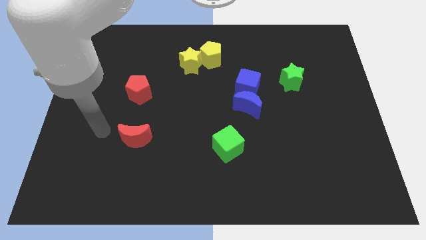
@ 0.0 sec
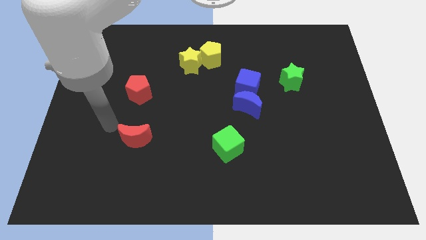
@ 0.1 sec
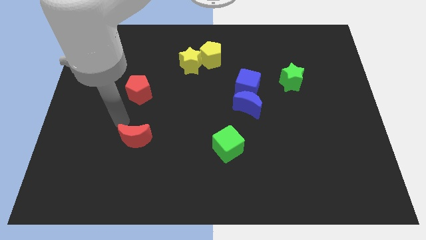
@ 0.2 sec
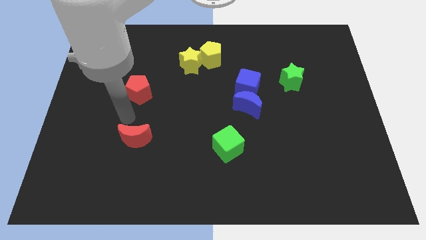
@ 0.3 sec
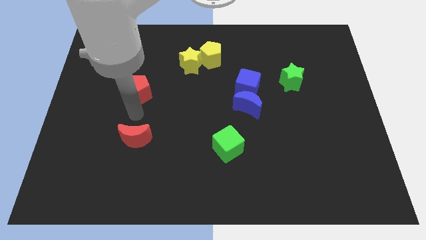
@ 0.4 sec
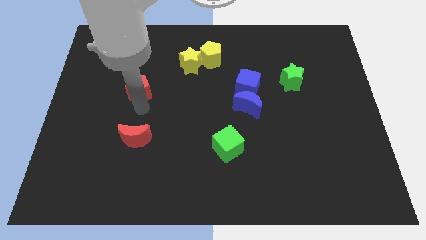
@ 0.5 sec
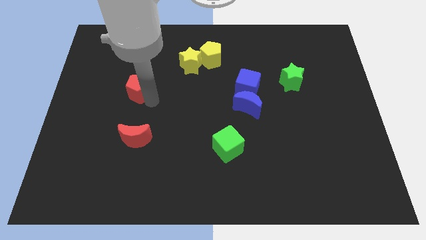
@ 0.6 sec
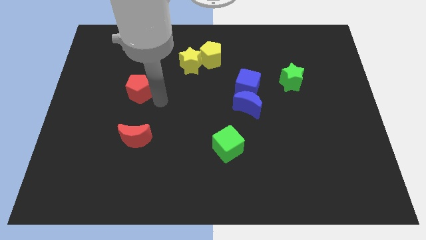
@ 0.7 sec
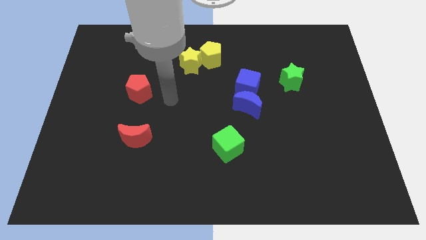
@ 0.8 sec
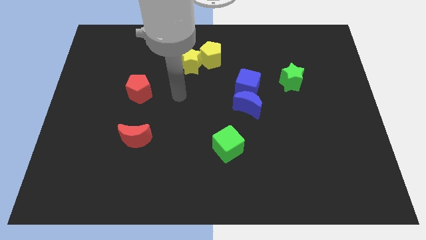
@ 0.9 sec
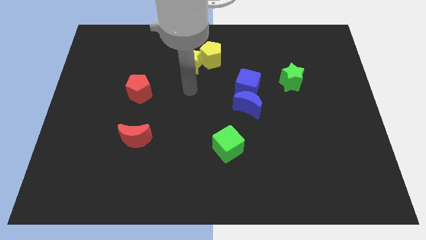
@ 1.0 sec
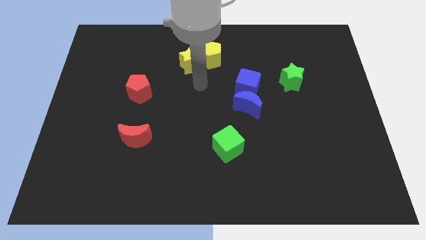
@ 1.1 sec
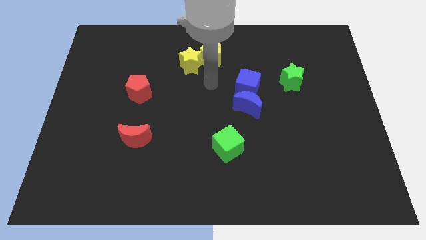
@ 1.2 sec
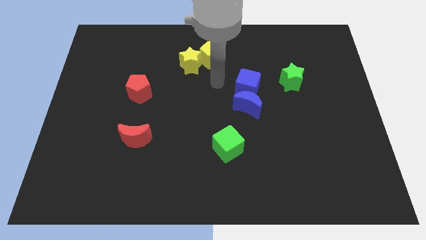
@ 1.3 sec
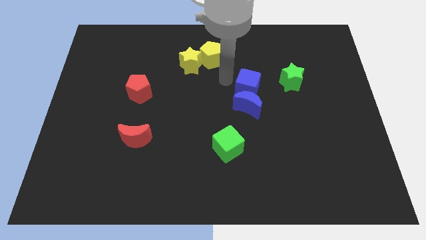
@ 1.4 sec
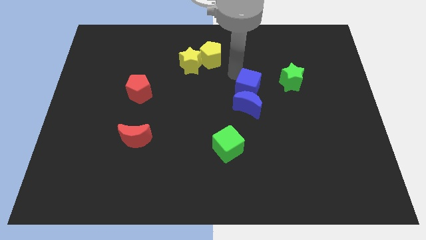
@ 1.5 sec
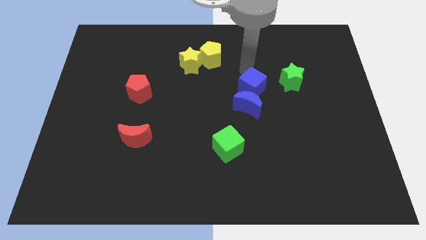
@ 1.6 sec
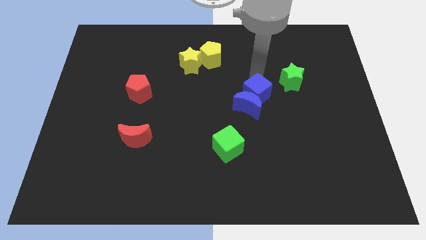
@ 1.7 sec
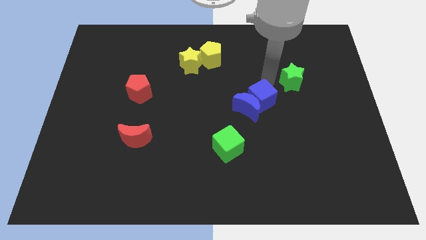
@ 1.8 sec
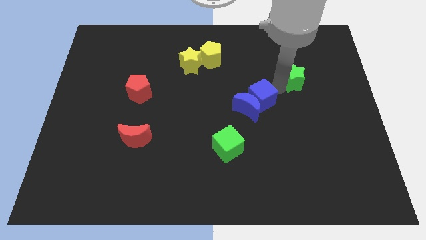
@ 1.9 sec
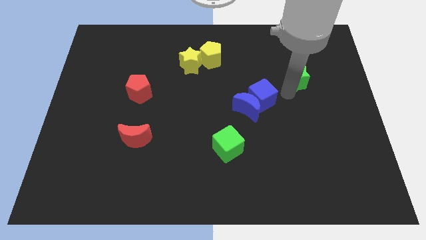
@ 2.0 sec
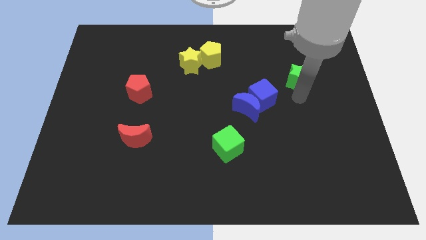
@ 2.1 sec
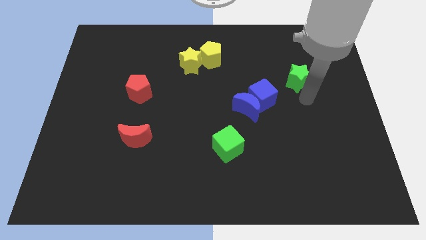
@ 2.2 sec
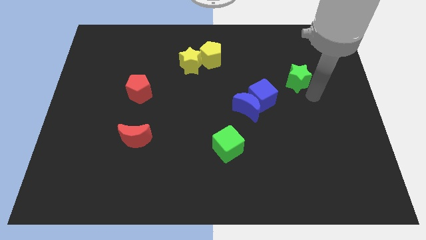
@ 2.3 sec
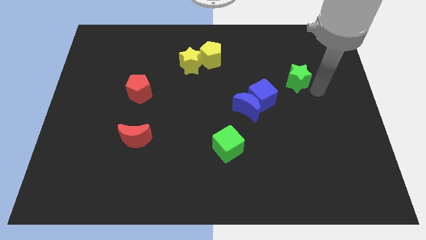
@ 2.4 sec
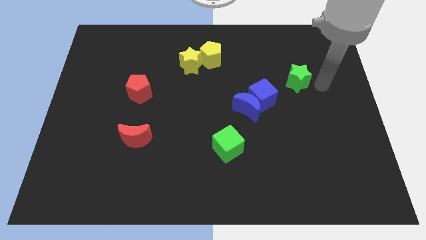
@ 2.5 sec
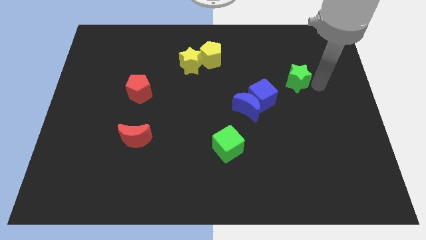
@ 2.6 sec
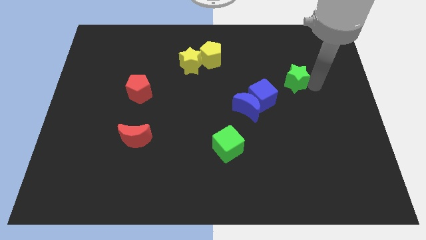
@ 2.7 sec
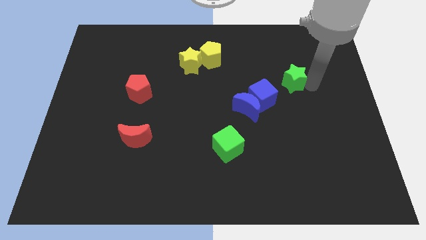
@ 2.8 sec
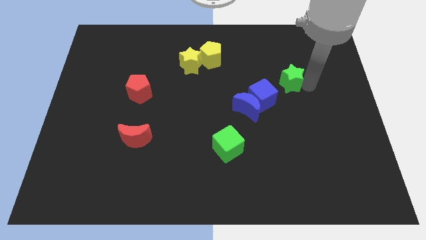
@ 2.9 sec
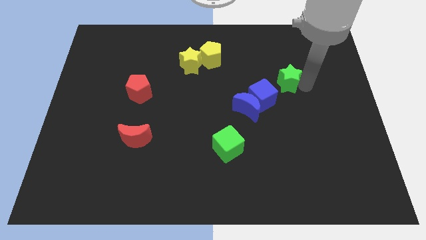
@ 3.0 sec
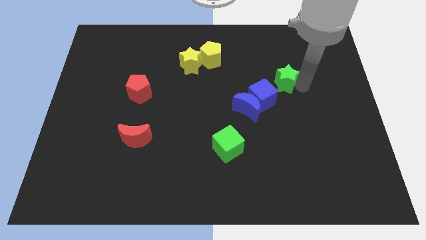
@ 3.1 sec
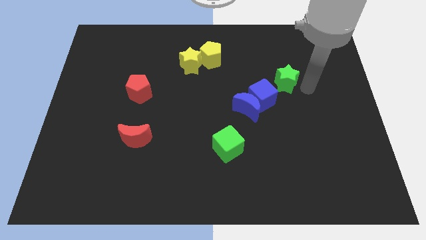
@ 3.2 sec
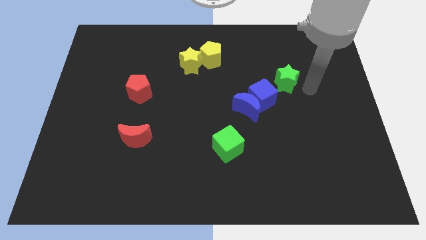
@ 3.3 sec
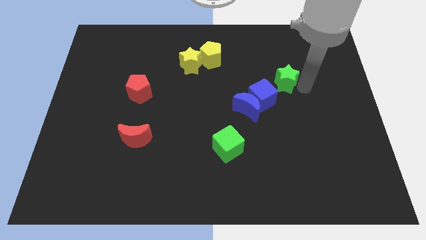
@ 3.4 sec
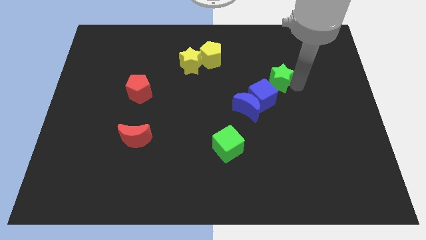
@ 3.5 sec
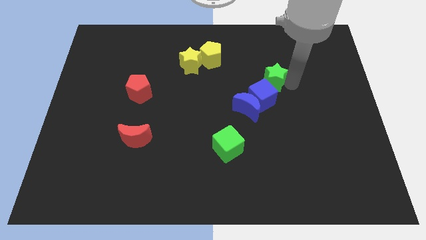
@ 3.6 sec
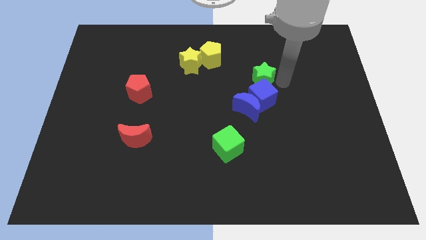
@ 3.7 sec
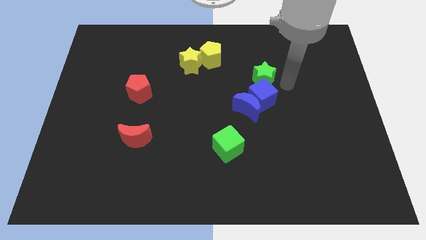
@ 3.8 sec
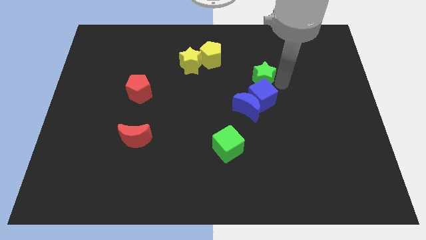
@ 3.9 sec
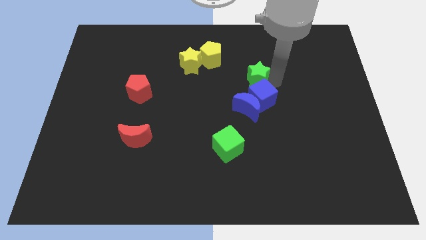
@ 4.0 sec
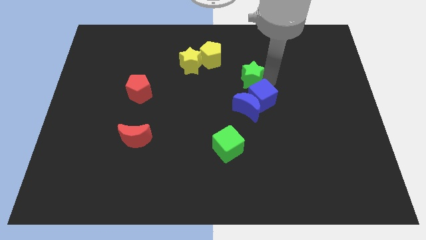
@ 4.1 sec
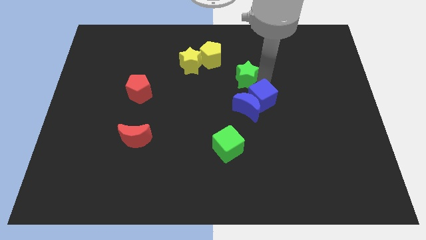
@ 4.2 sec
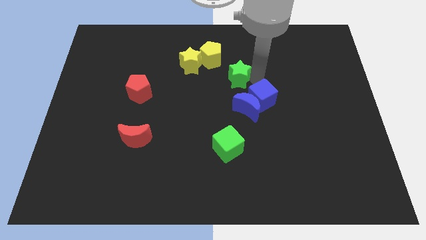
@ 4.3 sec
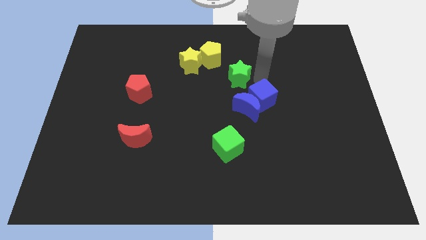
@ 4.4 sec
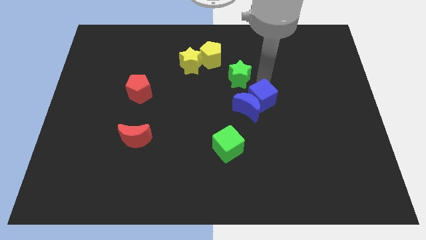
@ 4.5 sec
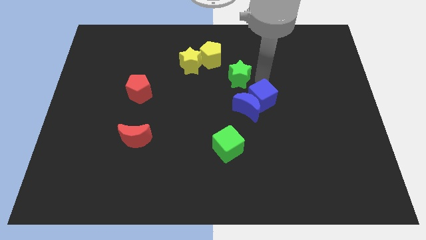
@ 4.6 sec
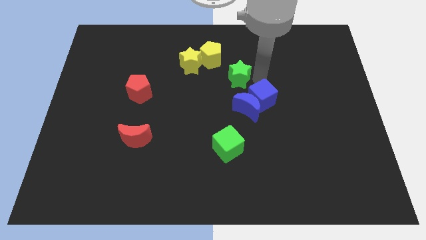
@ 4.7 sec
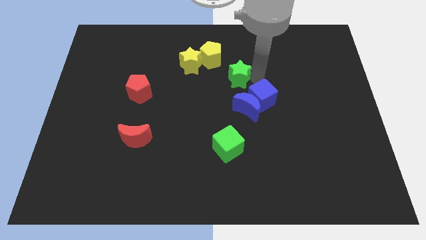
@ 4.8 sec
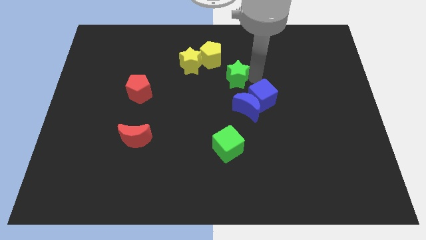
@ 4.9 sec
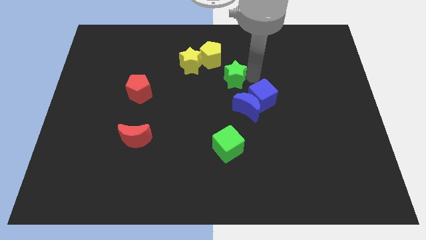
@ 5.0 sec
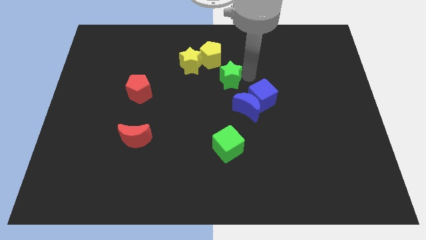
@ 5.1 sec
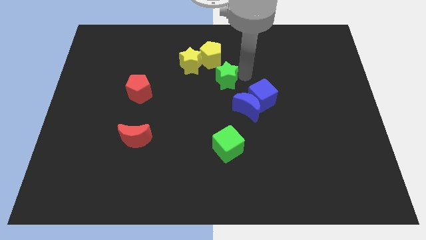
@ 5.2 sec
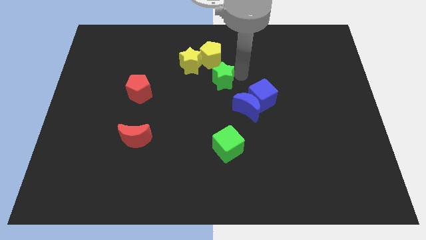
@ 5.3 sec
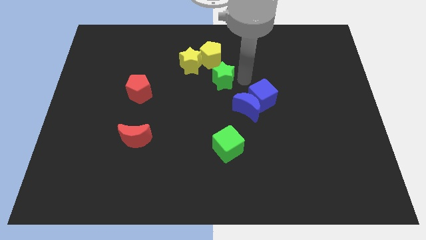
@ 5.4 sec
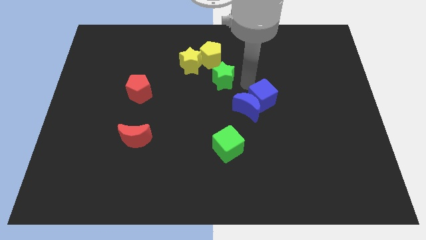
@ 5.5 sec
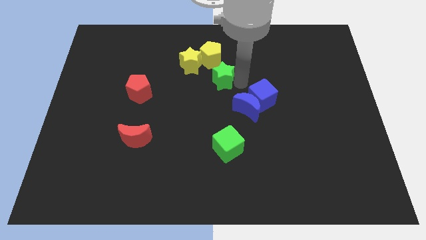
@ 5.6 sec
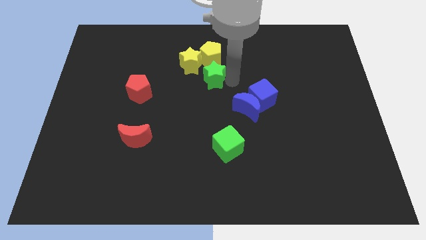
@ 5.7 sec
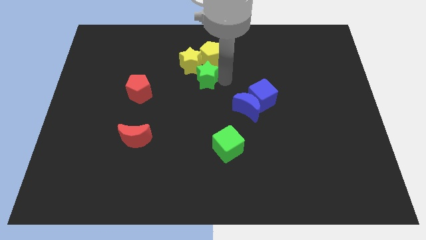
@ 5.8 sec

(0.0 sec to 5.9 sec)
push the green star to the bottom left of the yellow pentagon

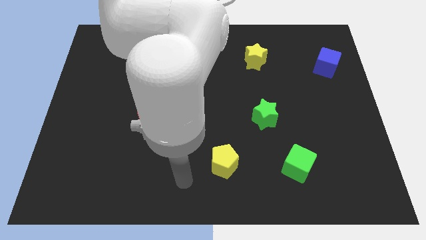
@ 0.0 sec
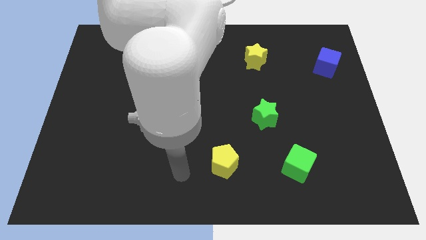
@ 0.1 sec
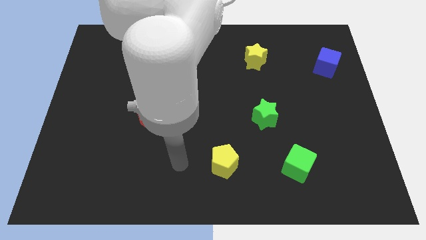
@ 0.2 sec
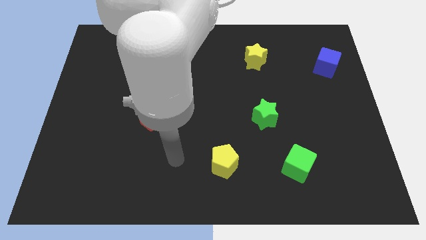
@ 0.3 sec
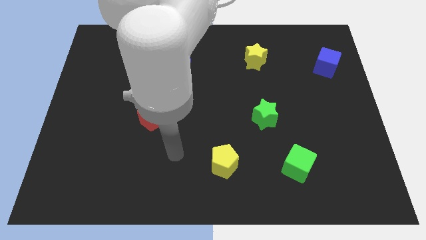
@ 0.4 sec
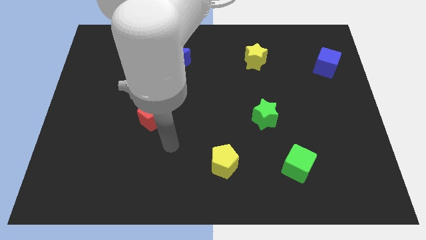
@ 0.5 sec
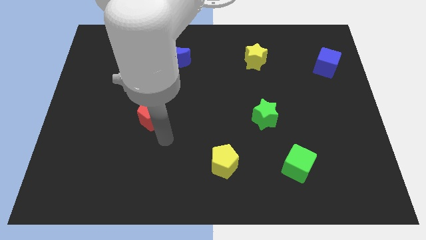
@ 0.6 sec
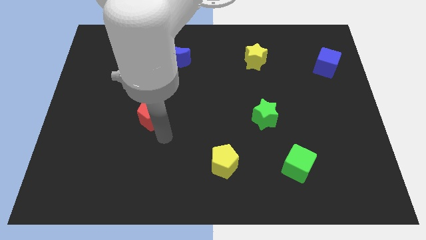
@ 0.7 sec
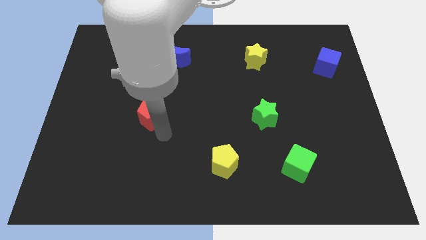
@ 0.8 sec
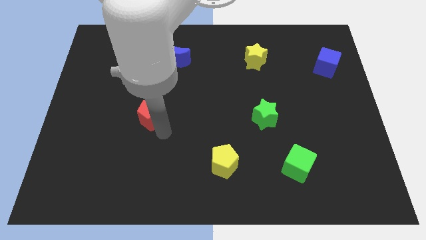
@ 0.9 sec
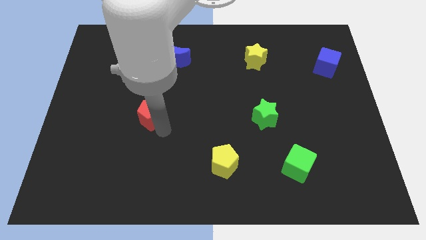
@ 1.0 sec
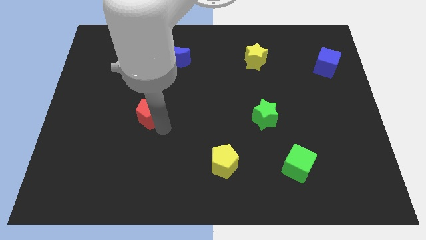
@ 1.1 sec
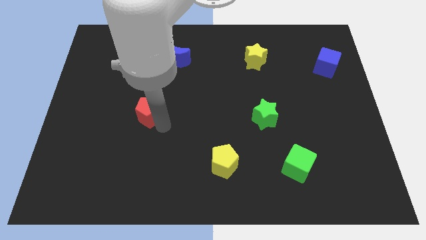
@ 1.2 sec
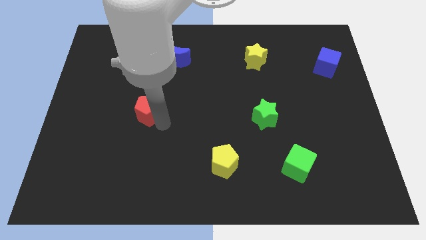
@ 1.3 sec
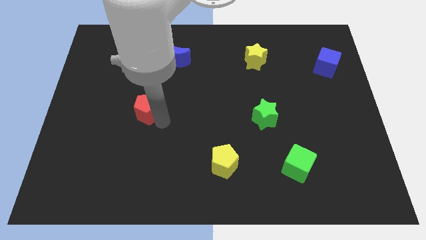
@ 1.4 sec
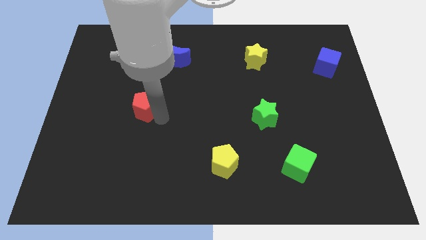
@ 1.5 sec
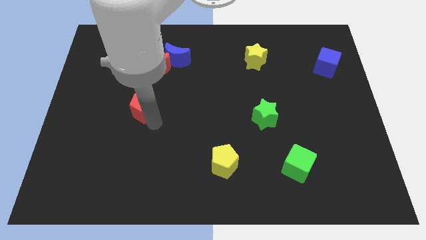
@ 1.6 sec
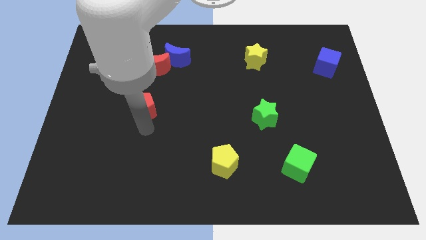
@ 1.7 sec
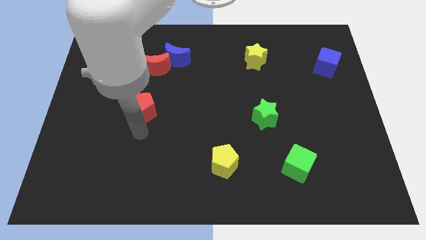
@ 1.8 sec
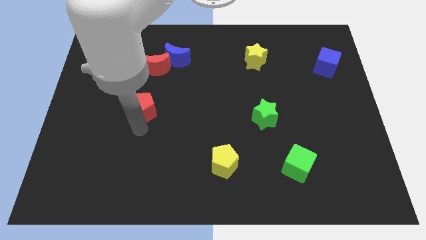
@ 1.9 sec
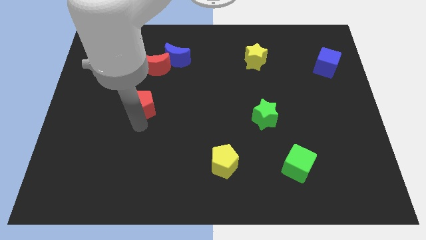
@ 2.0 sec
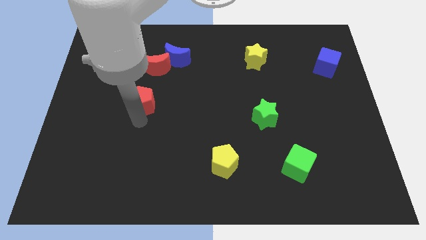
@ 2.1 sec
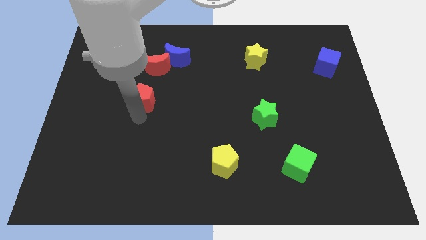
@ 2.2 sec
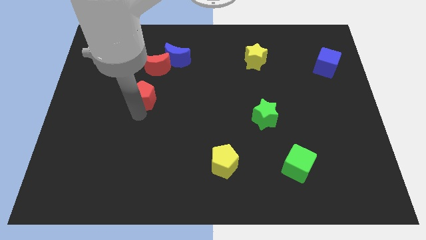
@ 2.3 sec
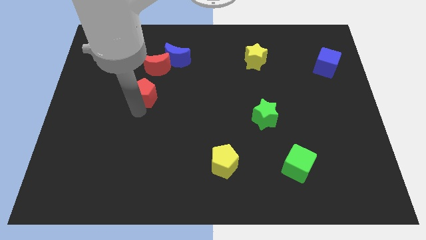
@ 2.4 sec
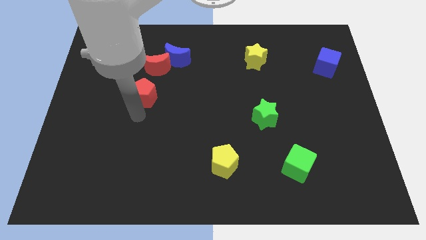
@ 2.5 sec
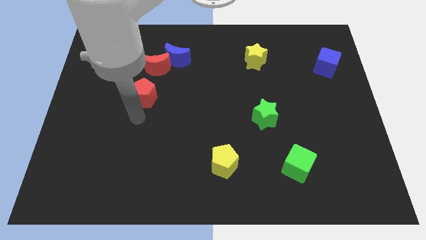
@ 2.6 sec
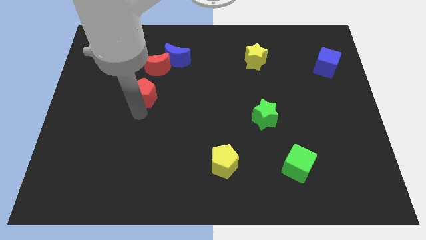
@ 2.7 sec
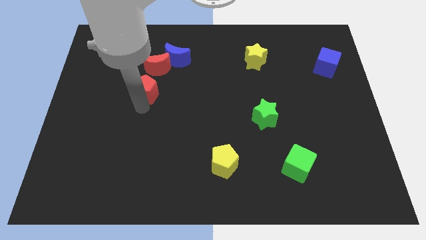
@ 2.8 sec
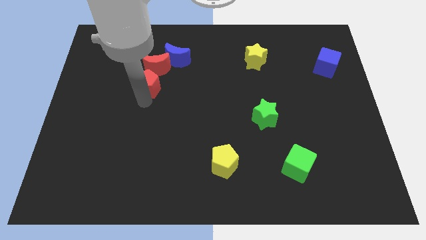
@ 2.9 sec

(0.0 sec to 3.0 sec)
push the red pentagon to the bottom left of the blue moon
